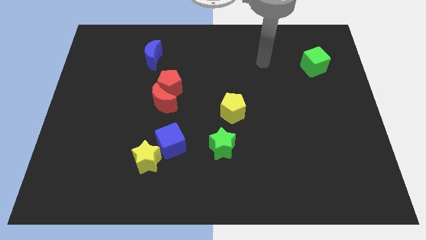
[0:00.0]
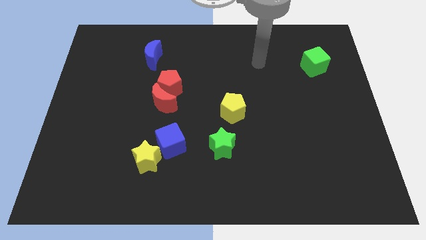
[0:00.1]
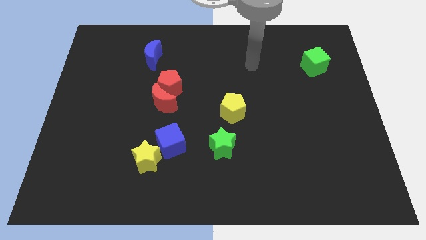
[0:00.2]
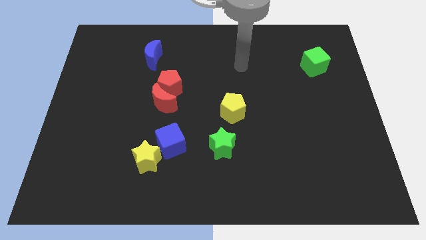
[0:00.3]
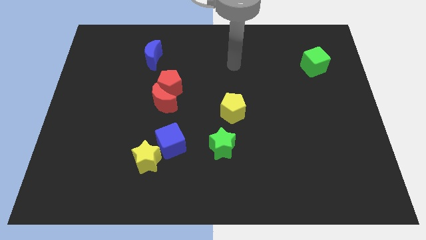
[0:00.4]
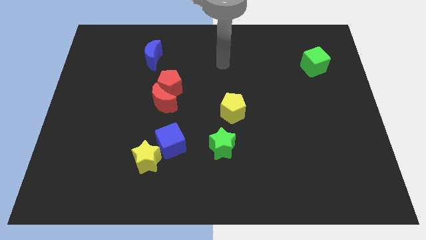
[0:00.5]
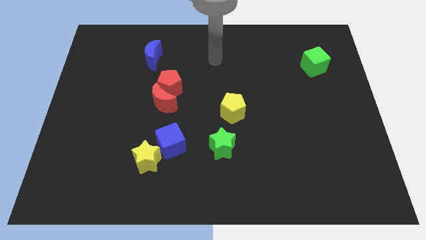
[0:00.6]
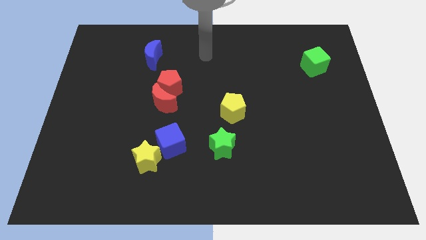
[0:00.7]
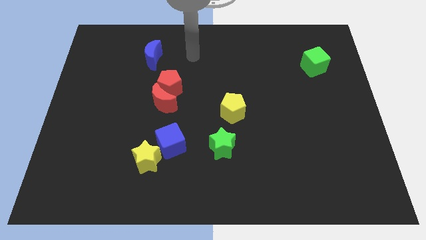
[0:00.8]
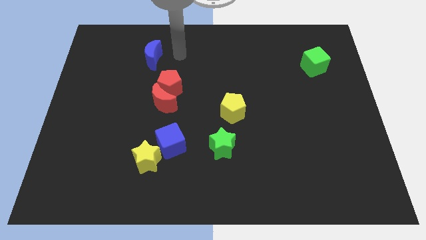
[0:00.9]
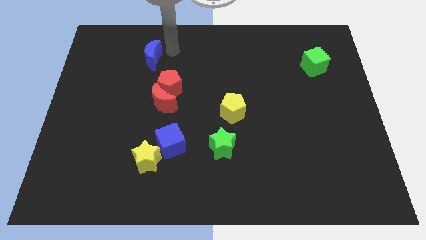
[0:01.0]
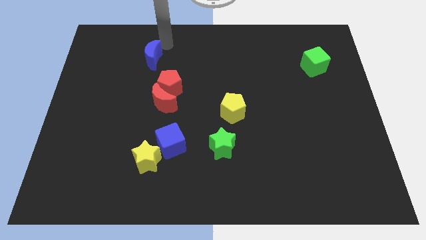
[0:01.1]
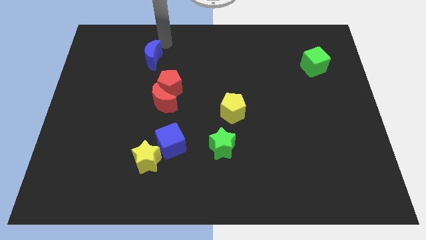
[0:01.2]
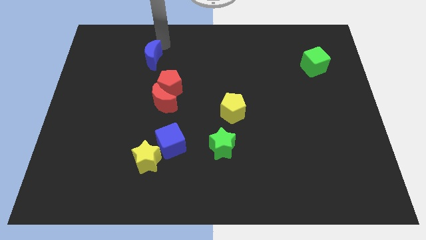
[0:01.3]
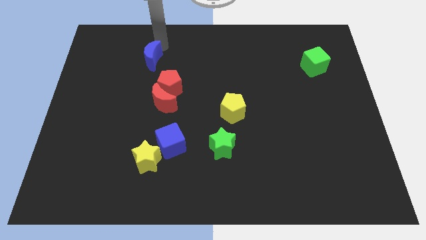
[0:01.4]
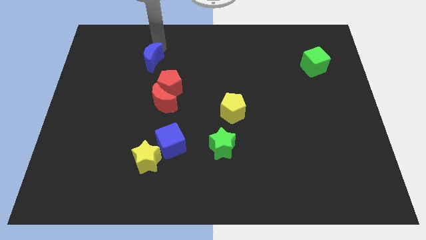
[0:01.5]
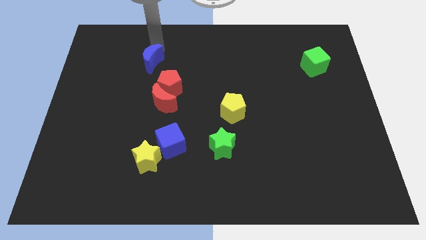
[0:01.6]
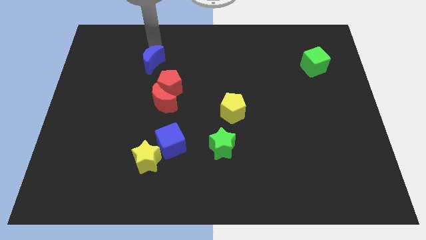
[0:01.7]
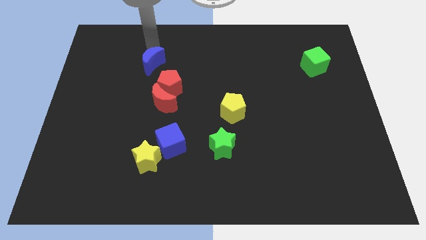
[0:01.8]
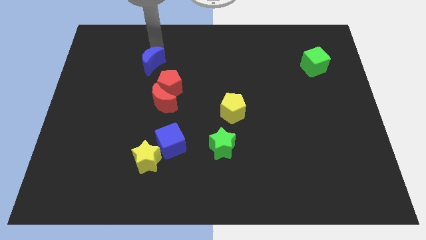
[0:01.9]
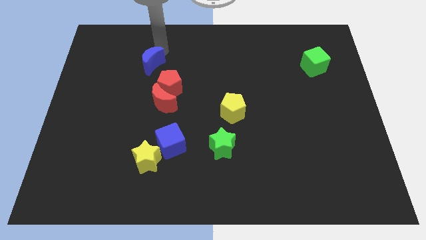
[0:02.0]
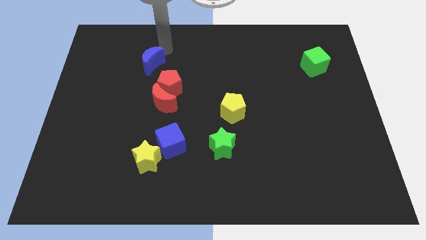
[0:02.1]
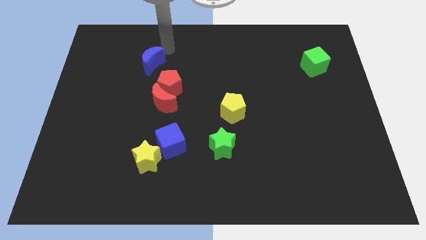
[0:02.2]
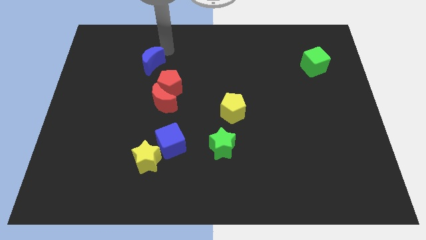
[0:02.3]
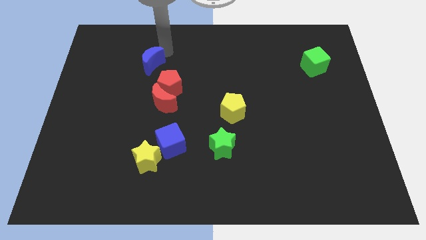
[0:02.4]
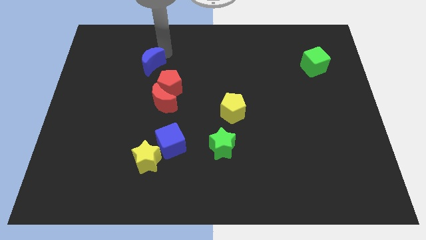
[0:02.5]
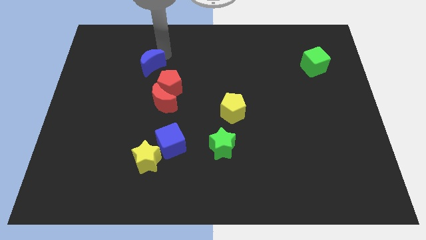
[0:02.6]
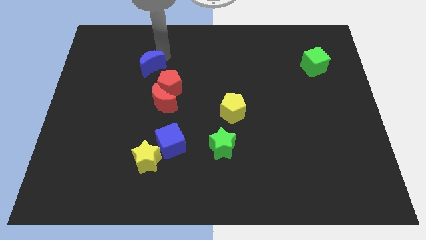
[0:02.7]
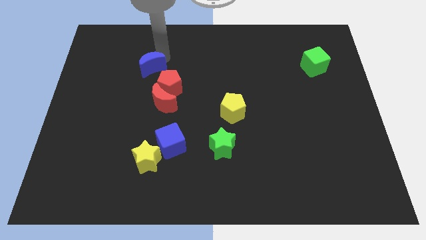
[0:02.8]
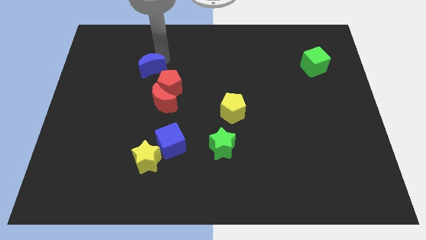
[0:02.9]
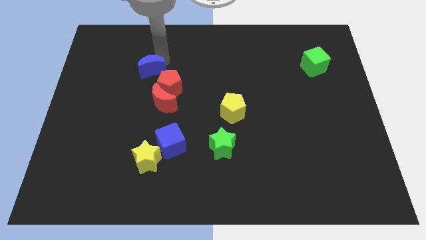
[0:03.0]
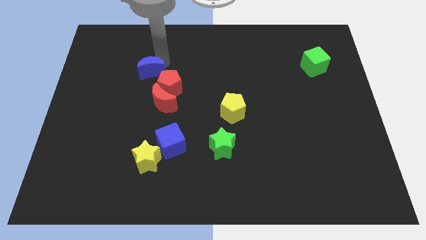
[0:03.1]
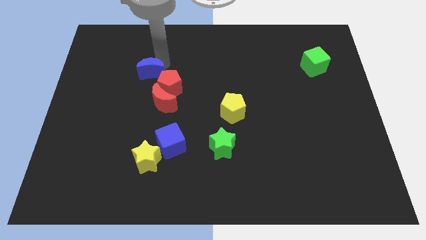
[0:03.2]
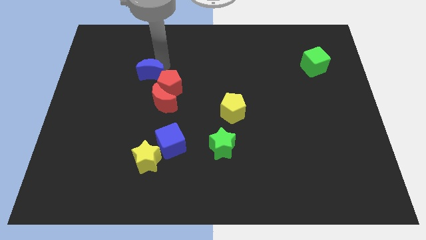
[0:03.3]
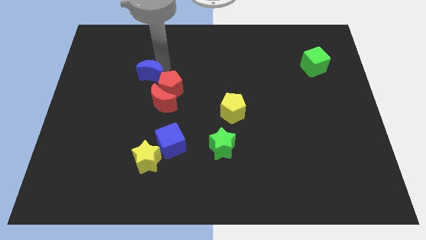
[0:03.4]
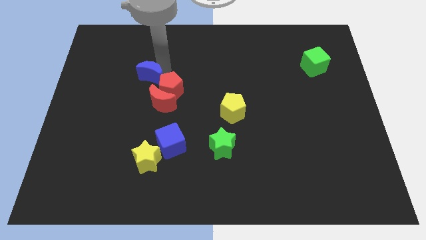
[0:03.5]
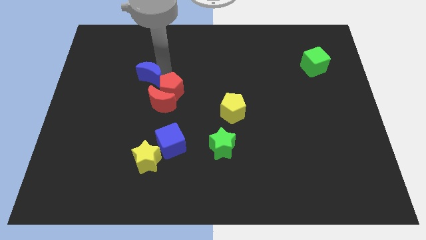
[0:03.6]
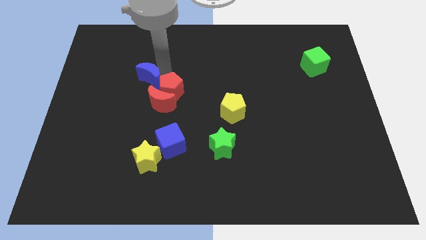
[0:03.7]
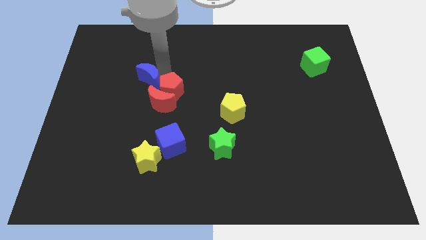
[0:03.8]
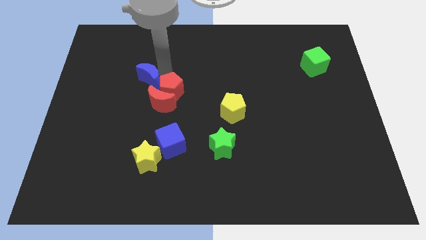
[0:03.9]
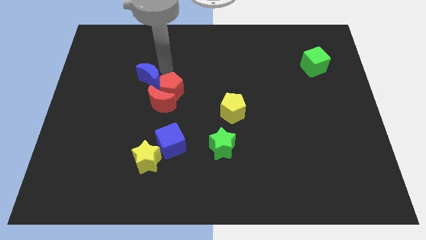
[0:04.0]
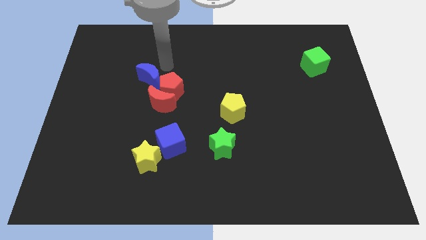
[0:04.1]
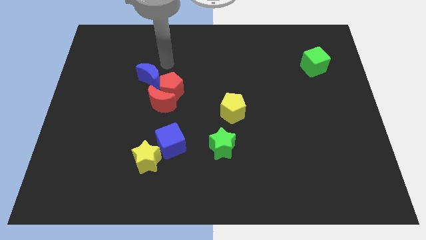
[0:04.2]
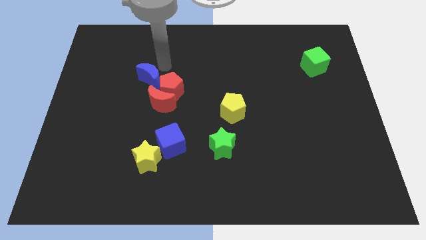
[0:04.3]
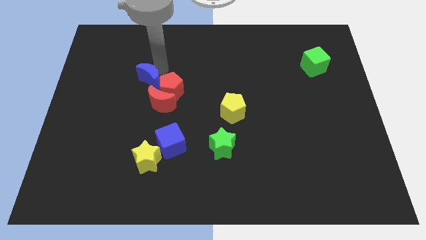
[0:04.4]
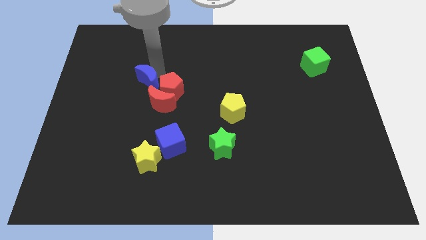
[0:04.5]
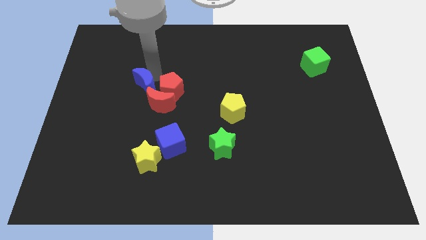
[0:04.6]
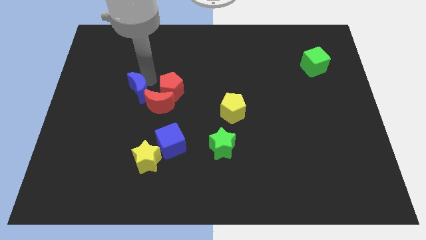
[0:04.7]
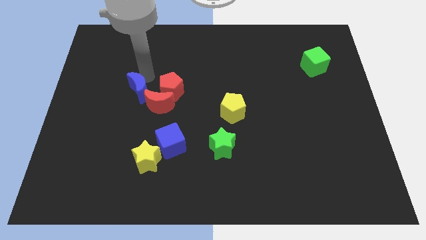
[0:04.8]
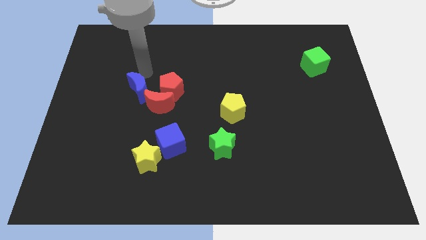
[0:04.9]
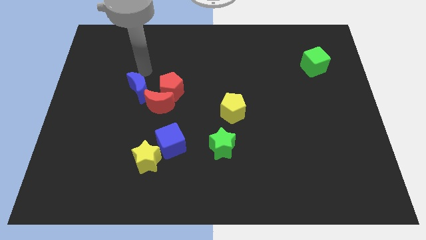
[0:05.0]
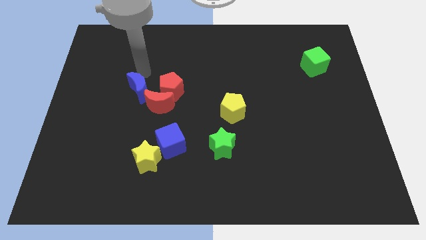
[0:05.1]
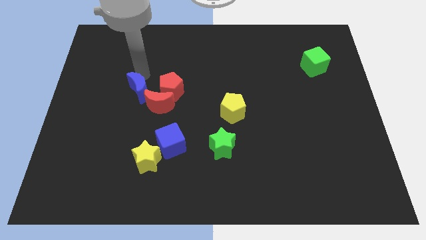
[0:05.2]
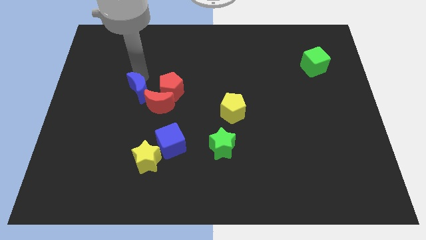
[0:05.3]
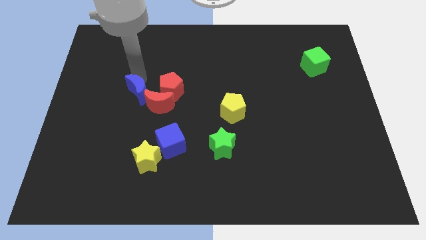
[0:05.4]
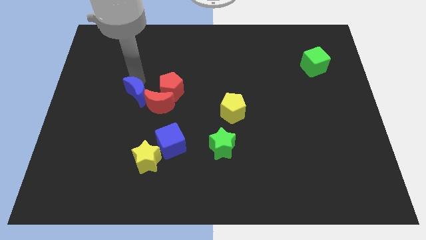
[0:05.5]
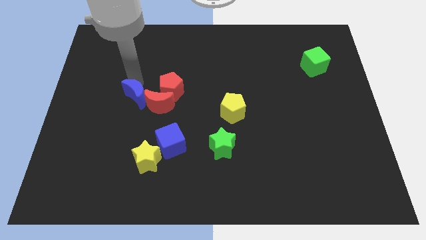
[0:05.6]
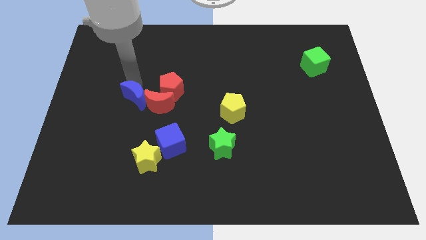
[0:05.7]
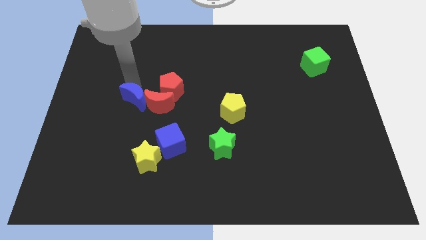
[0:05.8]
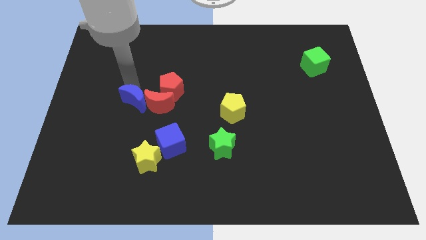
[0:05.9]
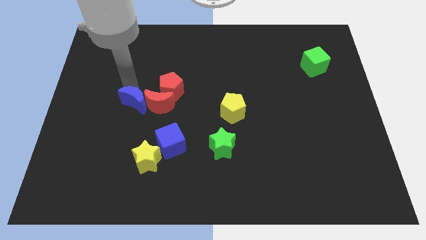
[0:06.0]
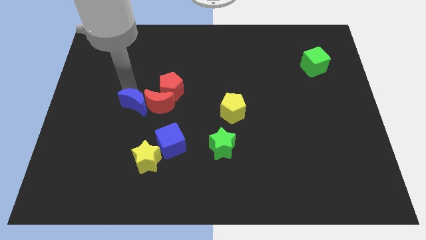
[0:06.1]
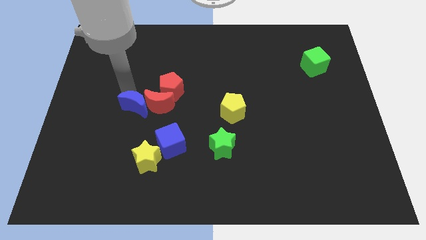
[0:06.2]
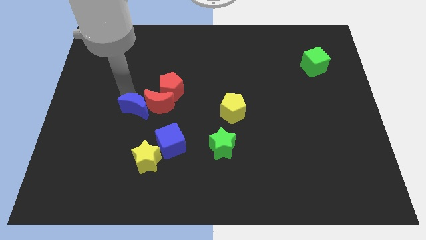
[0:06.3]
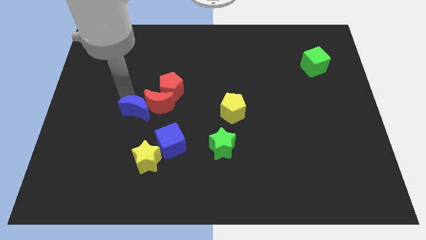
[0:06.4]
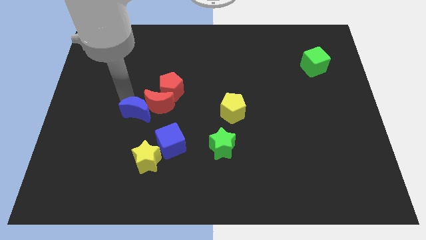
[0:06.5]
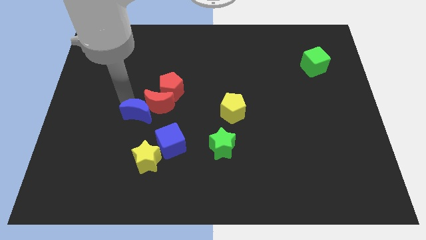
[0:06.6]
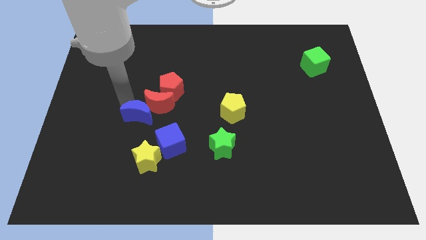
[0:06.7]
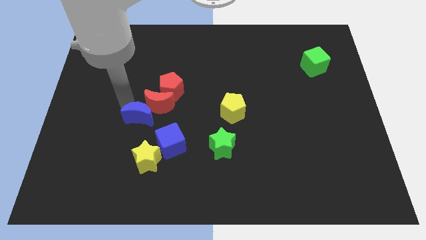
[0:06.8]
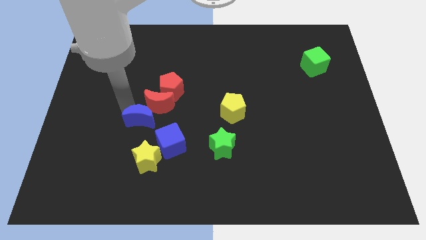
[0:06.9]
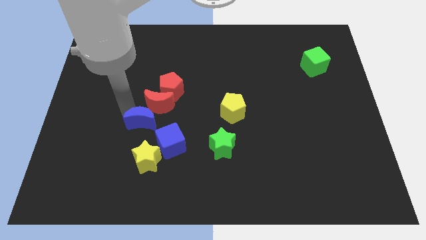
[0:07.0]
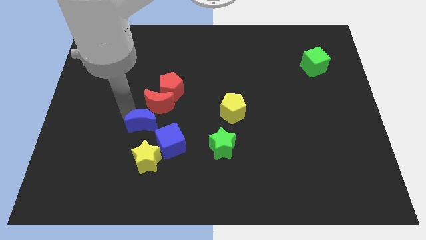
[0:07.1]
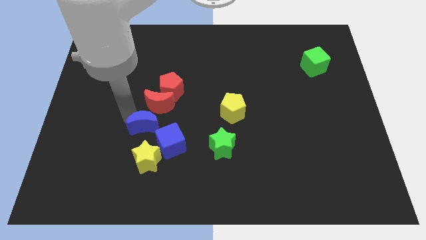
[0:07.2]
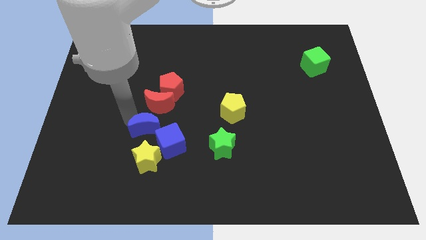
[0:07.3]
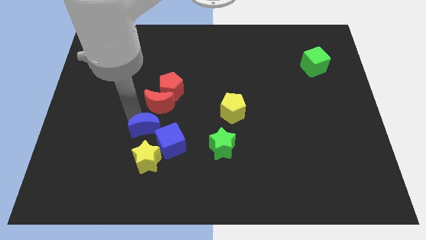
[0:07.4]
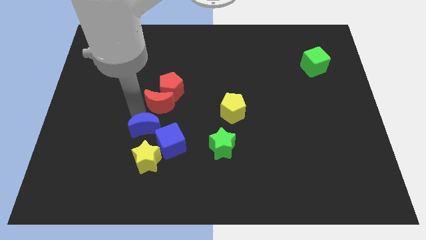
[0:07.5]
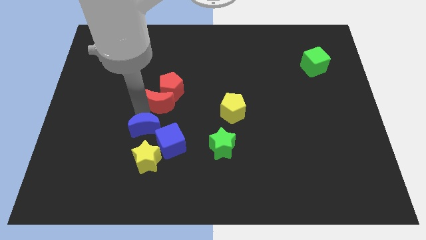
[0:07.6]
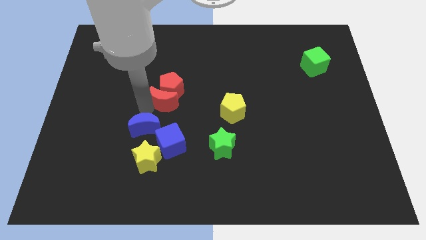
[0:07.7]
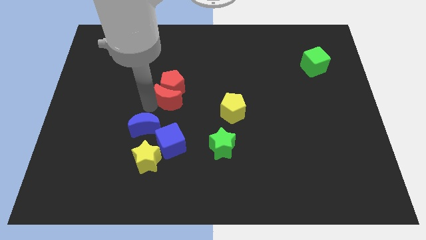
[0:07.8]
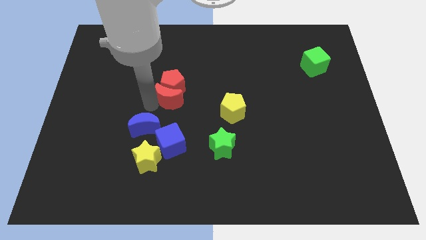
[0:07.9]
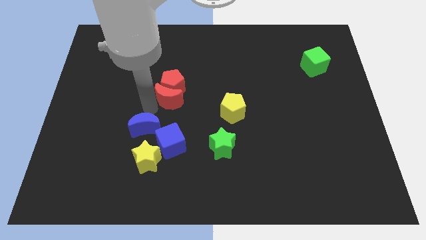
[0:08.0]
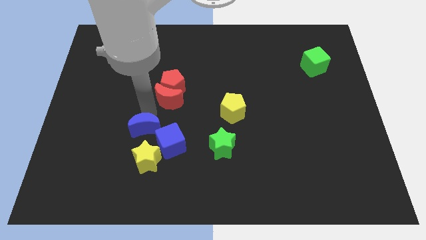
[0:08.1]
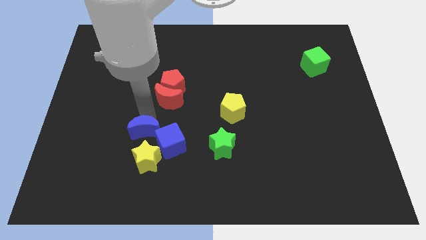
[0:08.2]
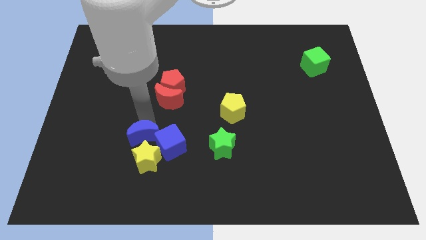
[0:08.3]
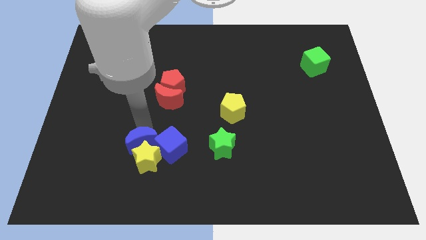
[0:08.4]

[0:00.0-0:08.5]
put the blue moon towards the yellow star
